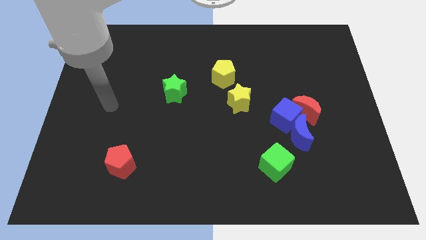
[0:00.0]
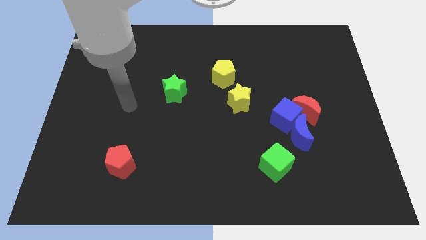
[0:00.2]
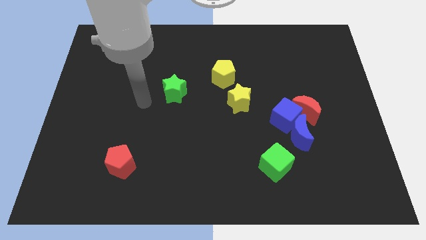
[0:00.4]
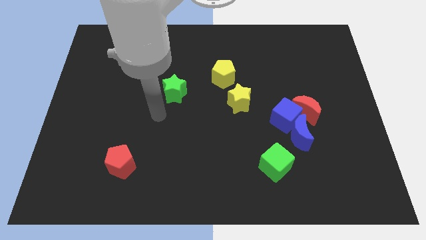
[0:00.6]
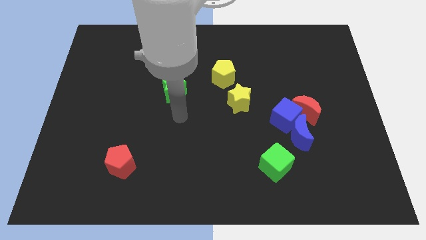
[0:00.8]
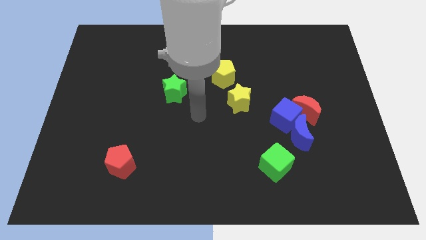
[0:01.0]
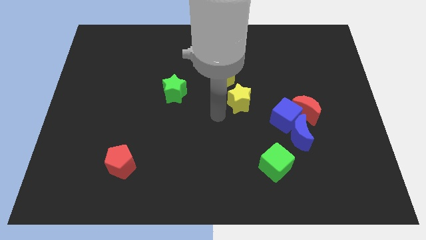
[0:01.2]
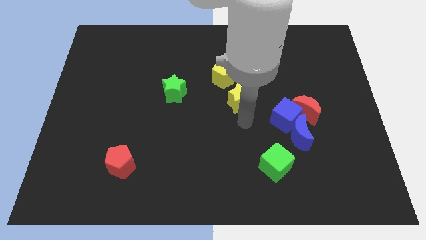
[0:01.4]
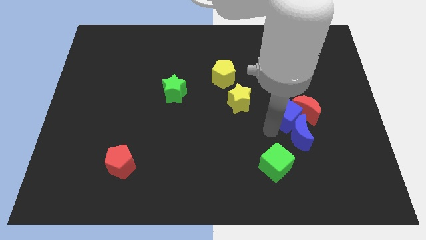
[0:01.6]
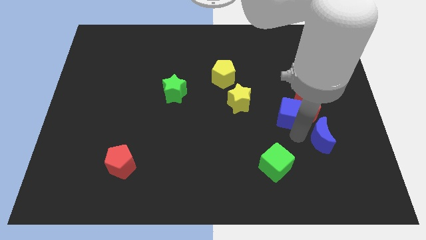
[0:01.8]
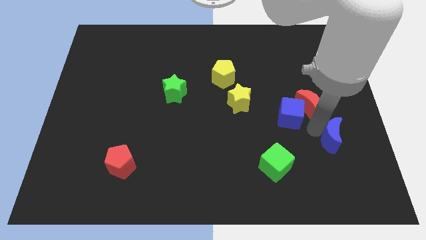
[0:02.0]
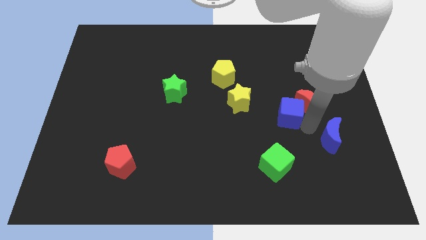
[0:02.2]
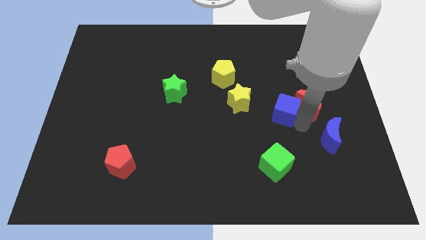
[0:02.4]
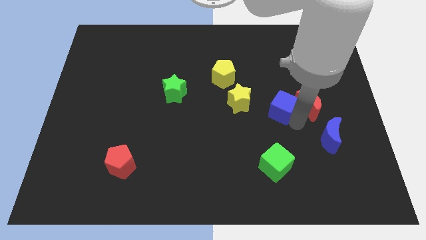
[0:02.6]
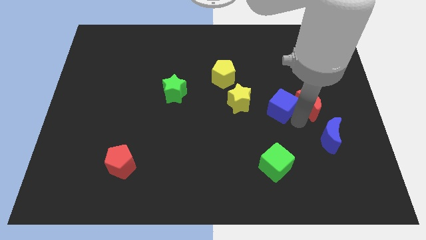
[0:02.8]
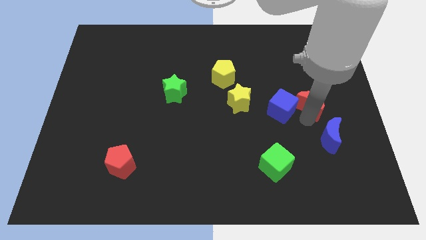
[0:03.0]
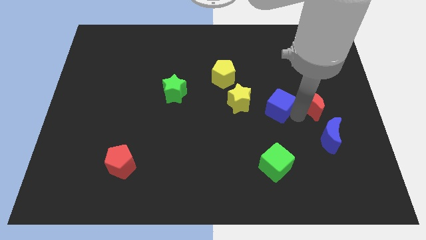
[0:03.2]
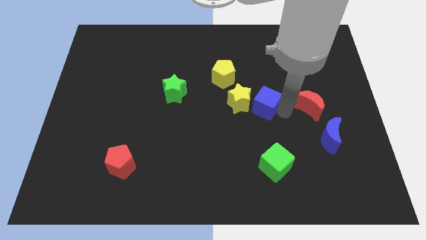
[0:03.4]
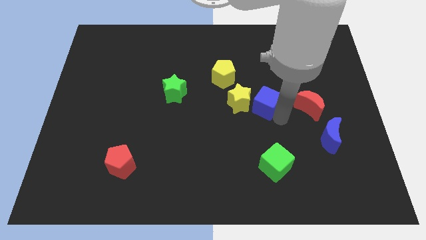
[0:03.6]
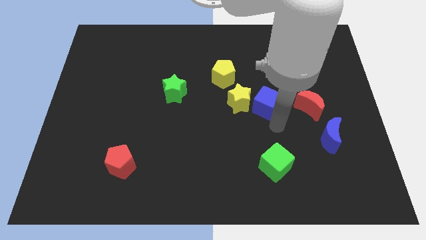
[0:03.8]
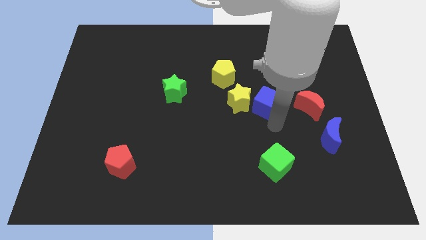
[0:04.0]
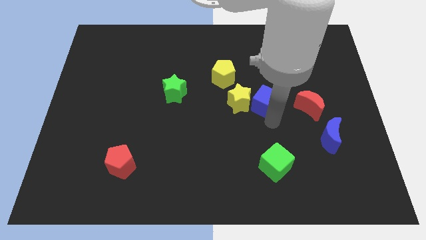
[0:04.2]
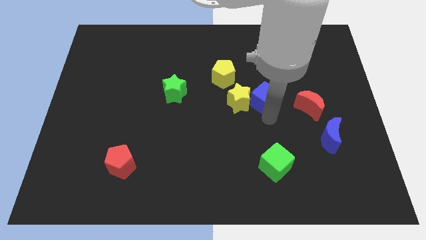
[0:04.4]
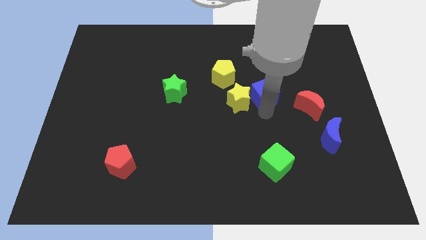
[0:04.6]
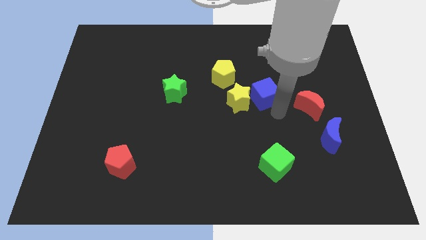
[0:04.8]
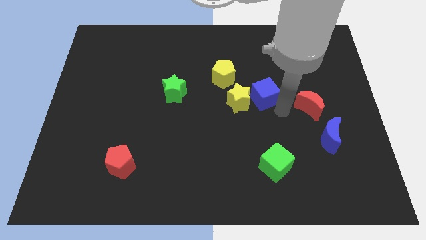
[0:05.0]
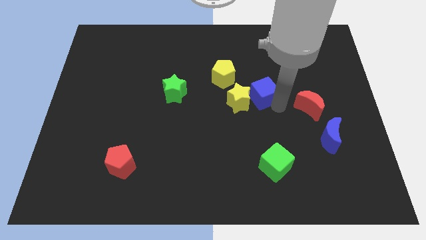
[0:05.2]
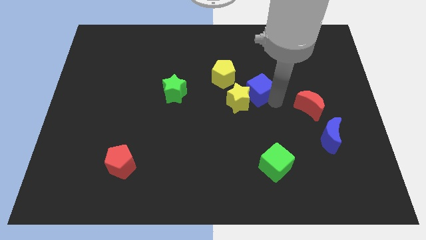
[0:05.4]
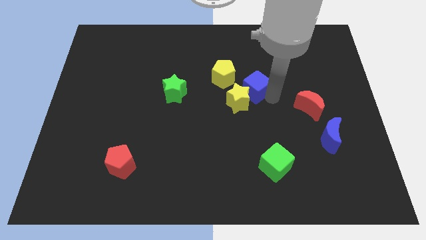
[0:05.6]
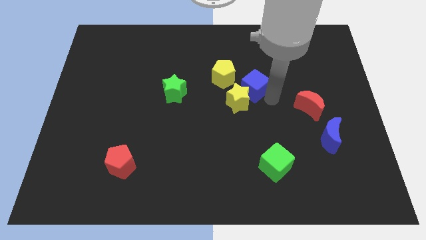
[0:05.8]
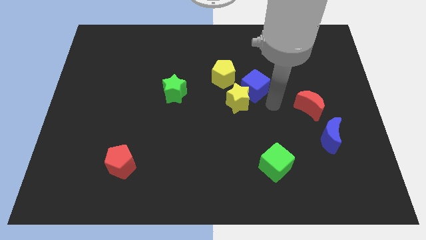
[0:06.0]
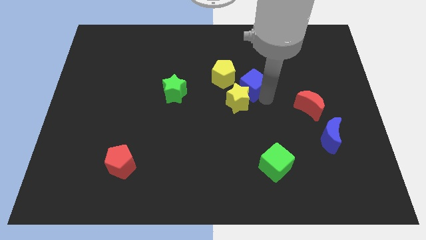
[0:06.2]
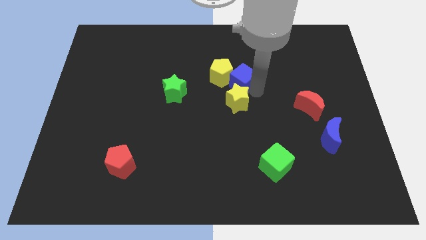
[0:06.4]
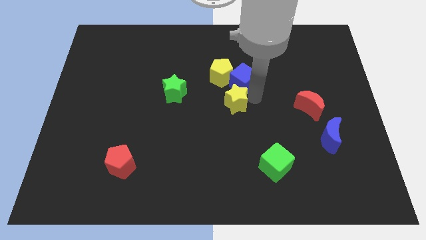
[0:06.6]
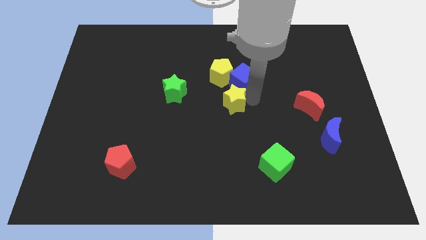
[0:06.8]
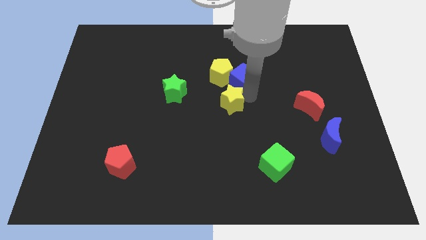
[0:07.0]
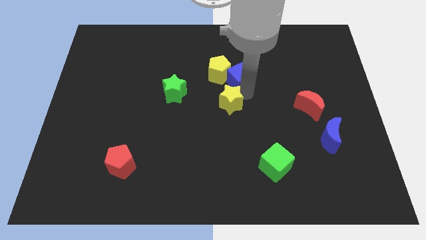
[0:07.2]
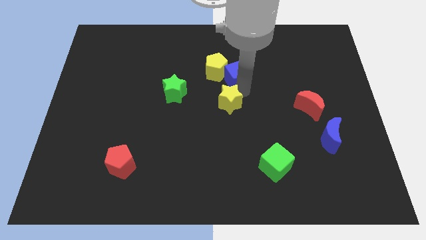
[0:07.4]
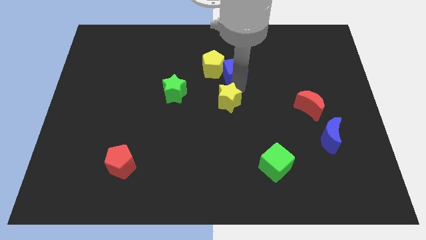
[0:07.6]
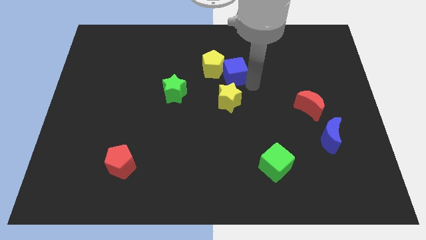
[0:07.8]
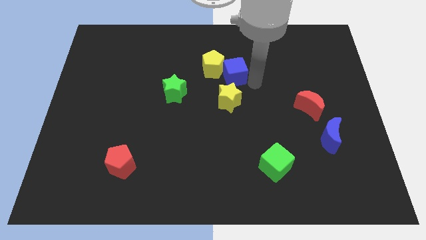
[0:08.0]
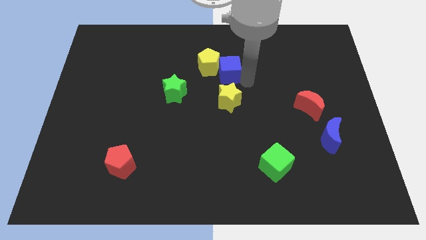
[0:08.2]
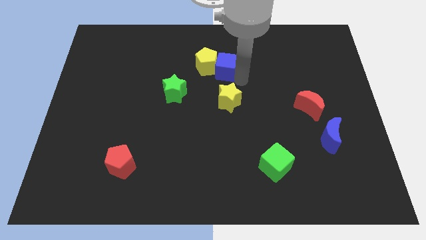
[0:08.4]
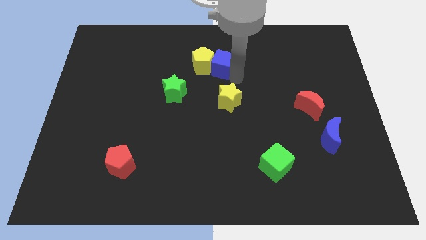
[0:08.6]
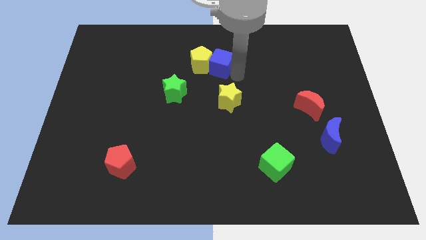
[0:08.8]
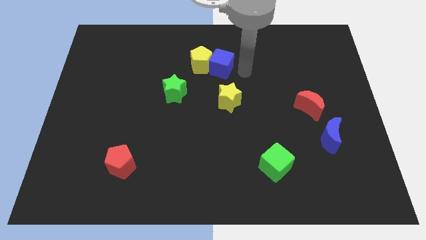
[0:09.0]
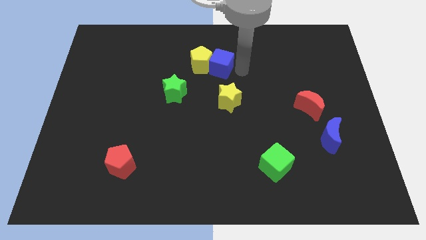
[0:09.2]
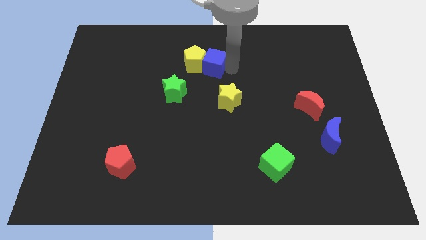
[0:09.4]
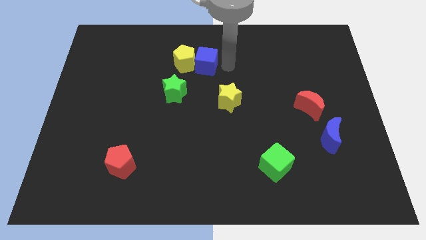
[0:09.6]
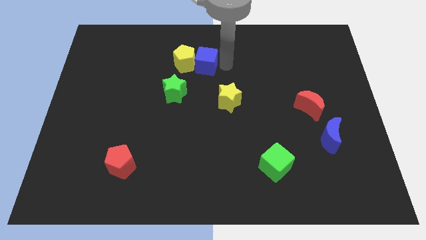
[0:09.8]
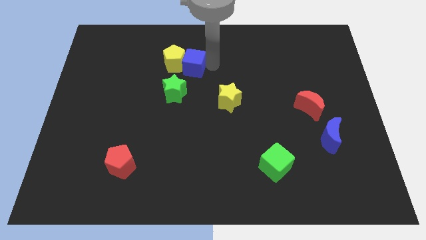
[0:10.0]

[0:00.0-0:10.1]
push the blue cube above the green star

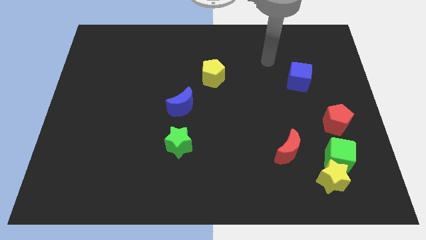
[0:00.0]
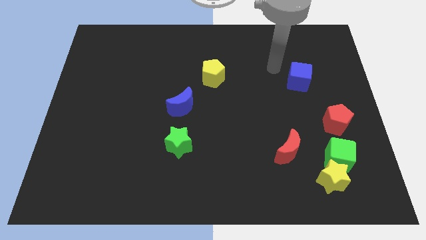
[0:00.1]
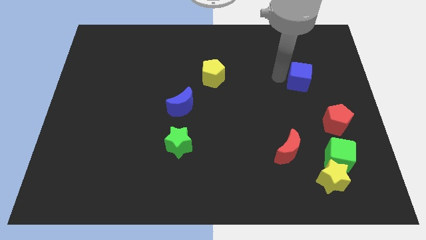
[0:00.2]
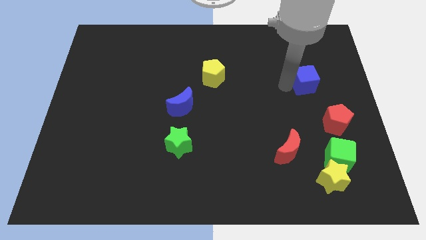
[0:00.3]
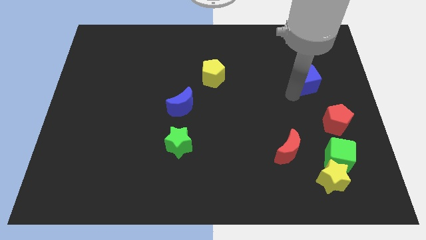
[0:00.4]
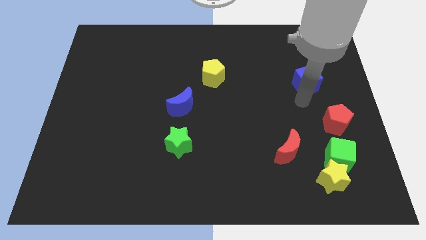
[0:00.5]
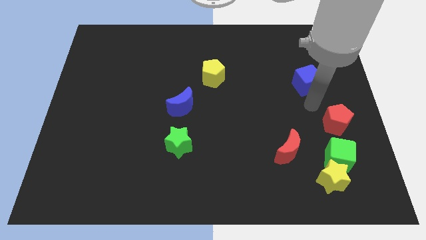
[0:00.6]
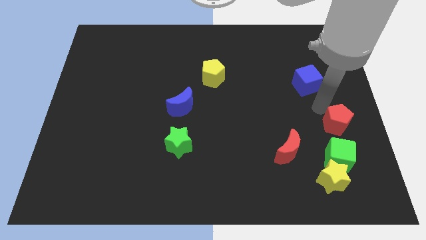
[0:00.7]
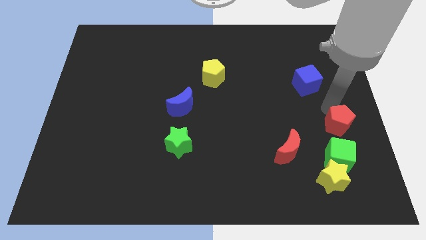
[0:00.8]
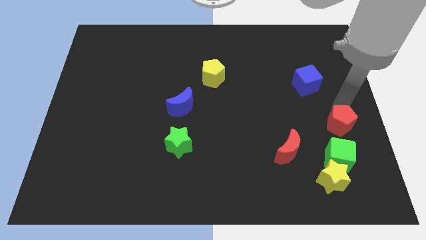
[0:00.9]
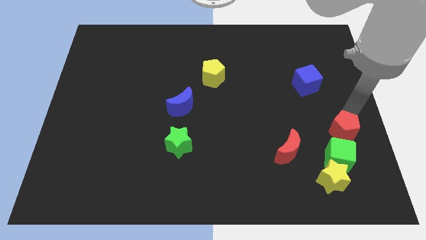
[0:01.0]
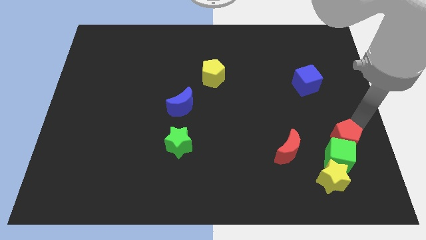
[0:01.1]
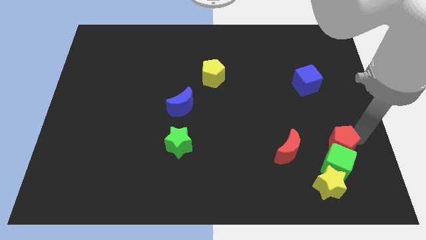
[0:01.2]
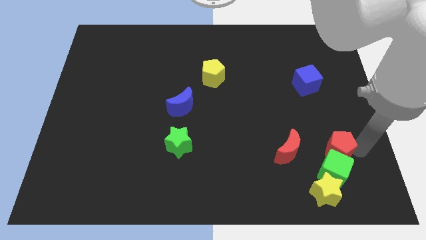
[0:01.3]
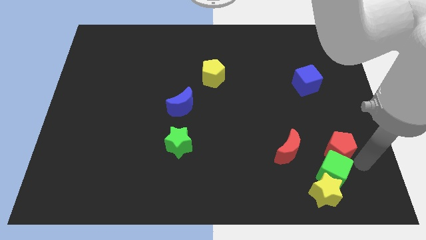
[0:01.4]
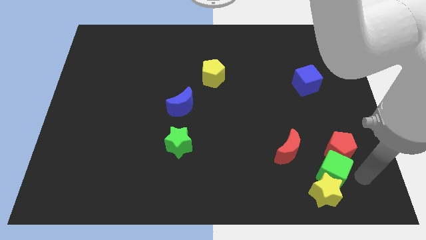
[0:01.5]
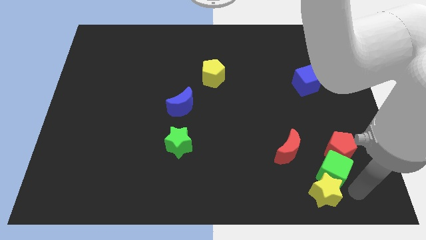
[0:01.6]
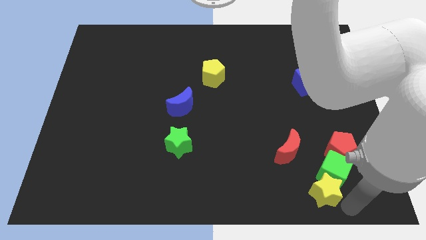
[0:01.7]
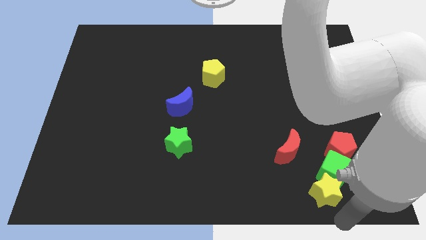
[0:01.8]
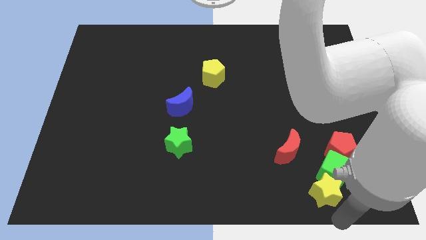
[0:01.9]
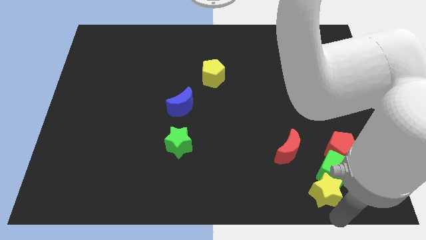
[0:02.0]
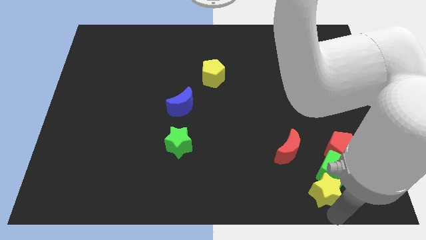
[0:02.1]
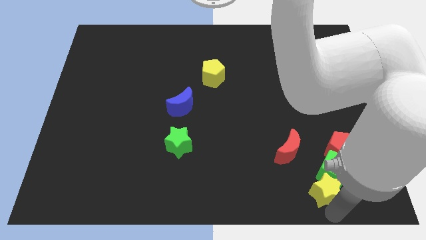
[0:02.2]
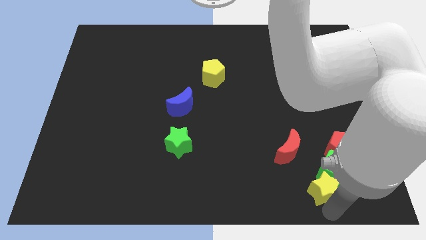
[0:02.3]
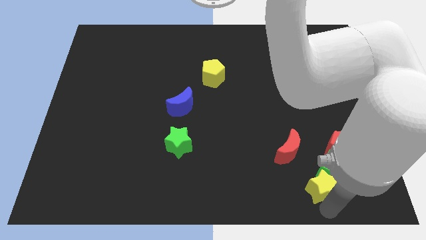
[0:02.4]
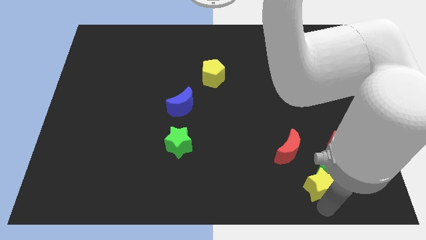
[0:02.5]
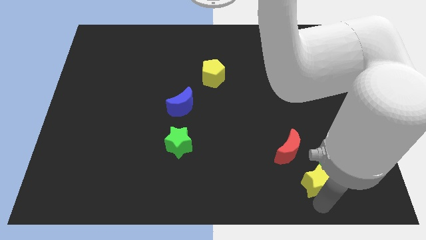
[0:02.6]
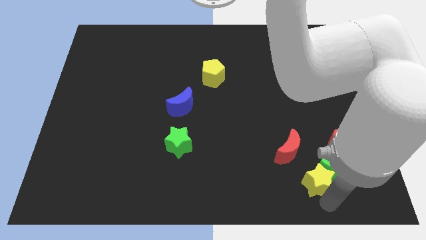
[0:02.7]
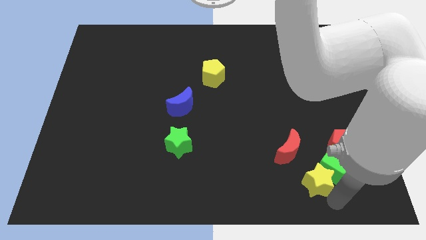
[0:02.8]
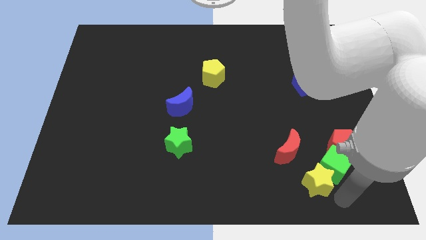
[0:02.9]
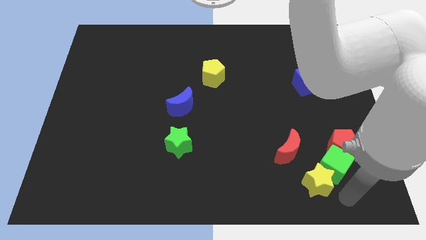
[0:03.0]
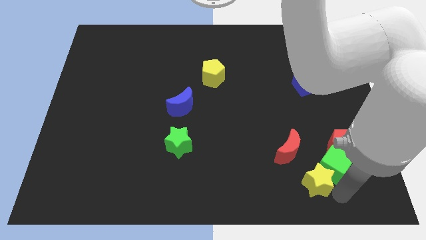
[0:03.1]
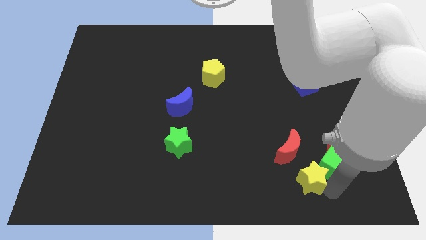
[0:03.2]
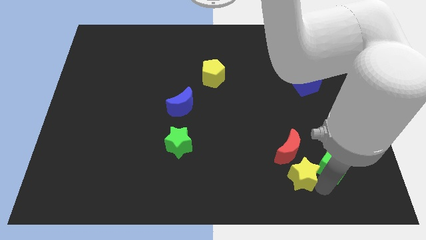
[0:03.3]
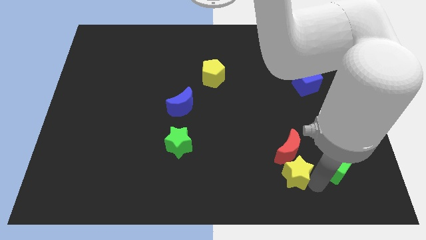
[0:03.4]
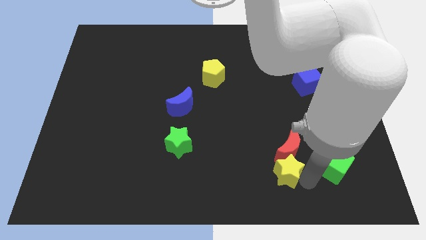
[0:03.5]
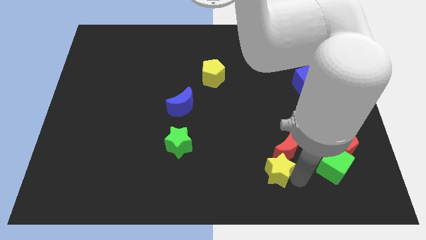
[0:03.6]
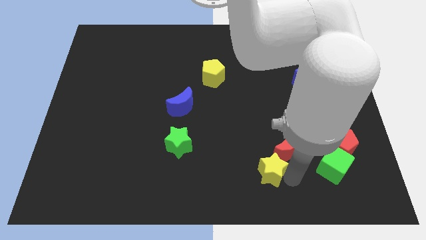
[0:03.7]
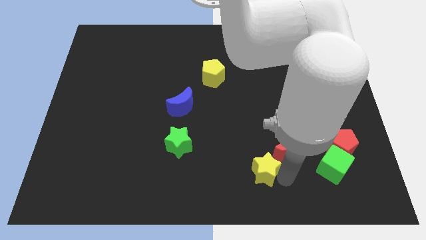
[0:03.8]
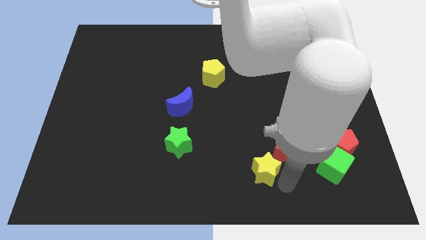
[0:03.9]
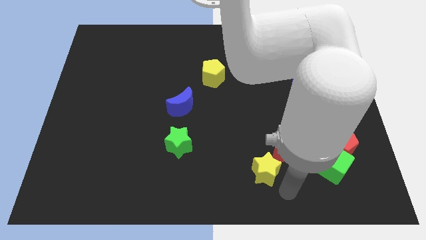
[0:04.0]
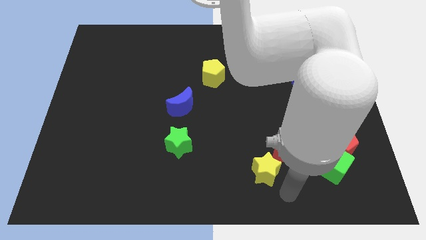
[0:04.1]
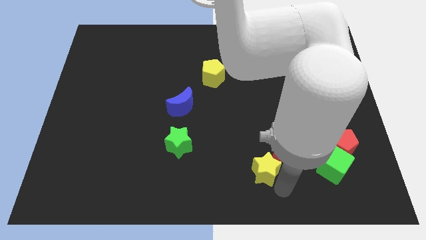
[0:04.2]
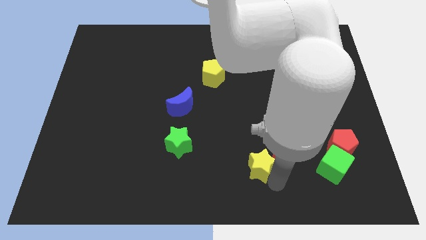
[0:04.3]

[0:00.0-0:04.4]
put the yellow star just left of the red moon
